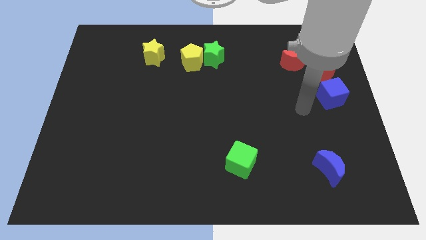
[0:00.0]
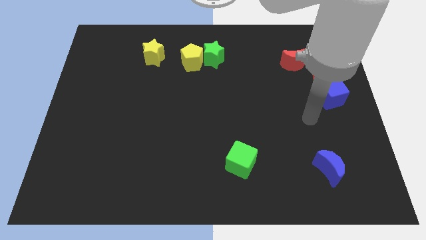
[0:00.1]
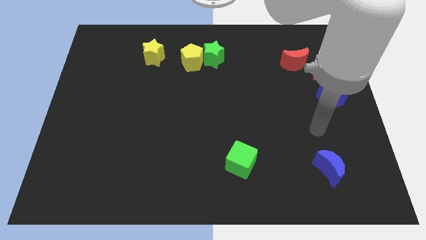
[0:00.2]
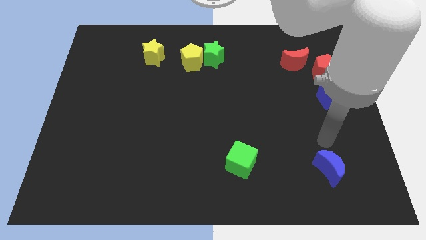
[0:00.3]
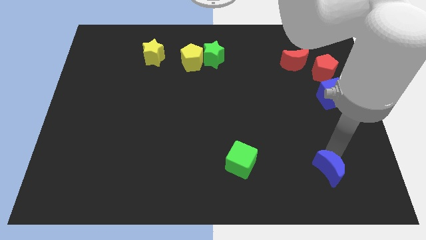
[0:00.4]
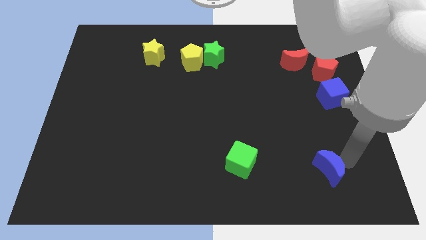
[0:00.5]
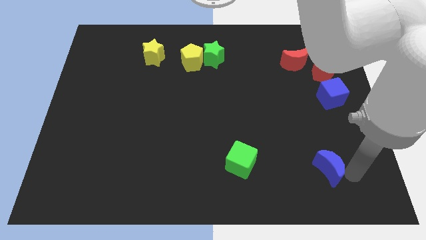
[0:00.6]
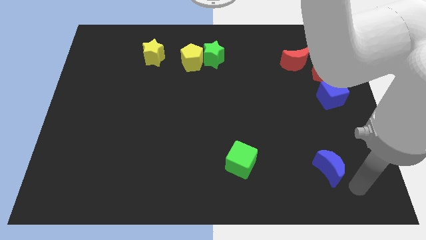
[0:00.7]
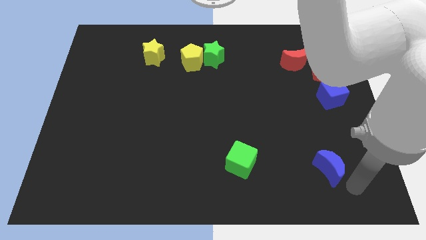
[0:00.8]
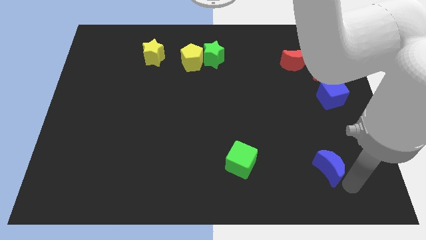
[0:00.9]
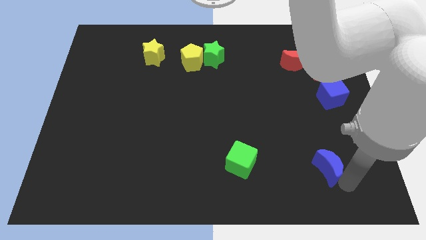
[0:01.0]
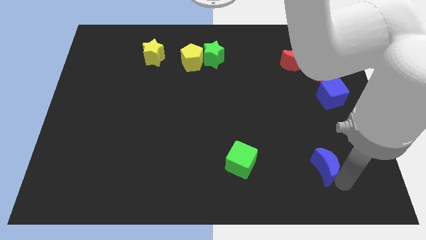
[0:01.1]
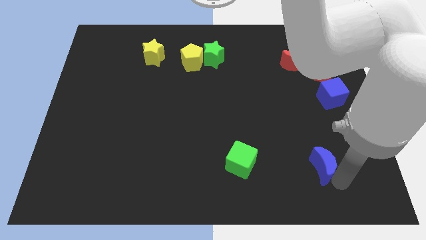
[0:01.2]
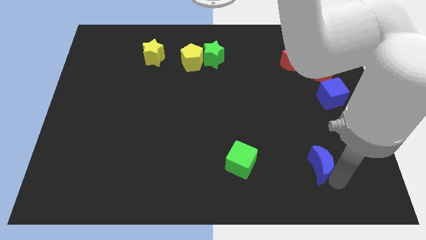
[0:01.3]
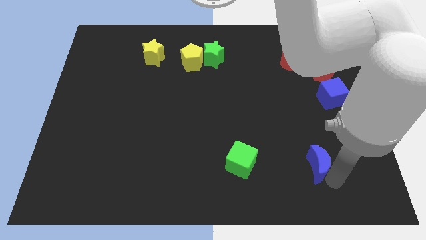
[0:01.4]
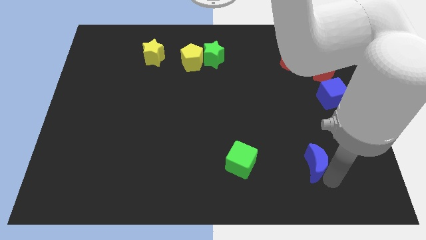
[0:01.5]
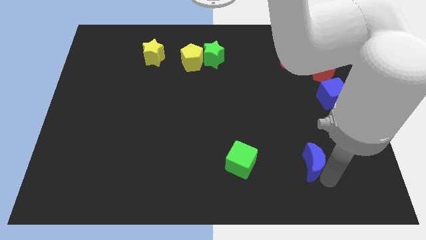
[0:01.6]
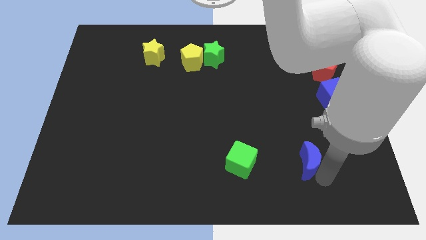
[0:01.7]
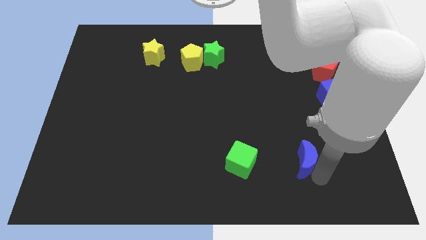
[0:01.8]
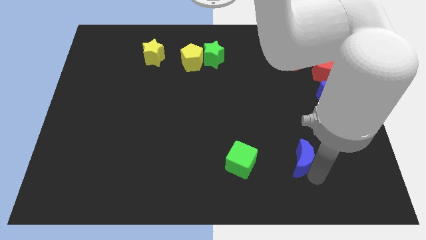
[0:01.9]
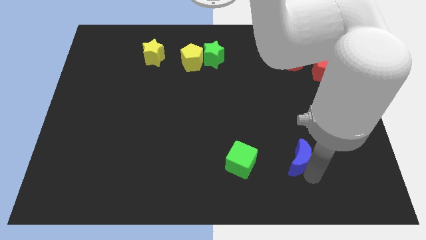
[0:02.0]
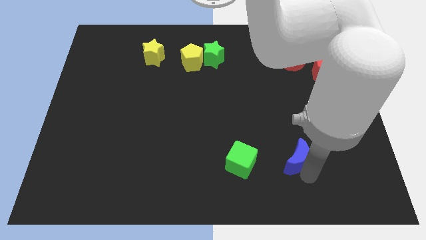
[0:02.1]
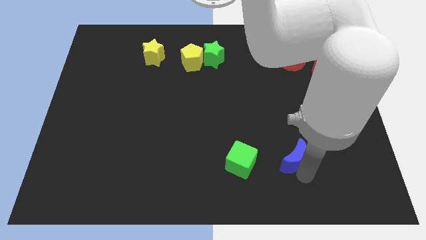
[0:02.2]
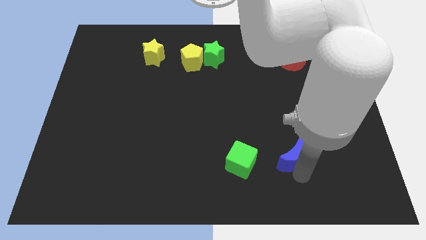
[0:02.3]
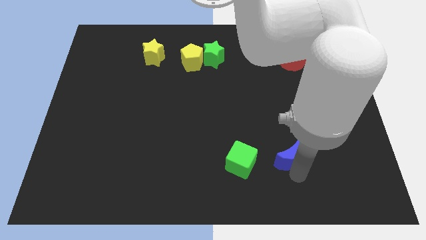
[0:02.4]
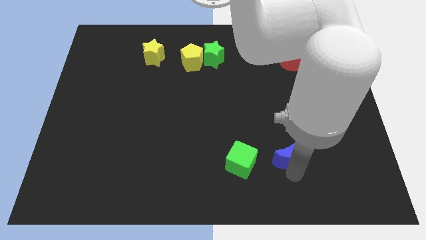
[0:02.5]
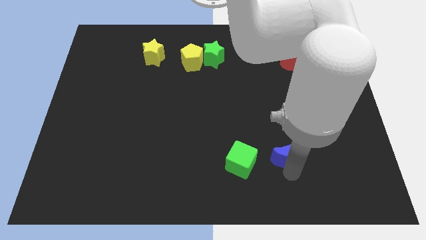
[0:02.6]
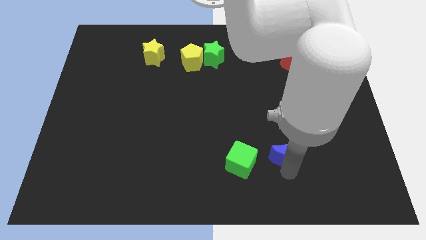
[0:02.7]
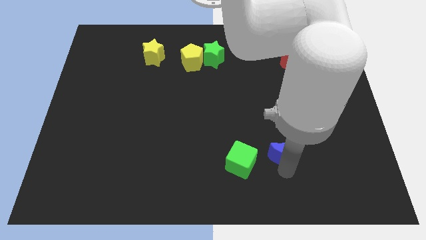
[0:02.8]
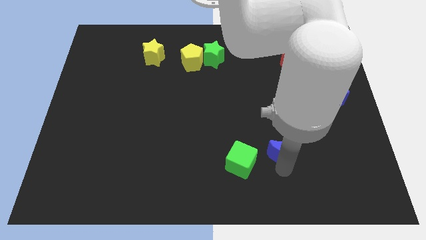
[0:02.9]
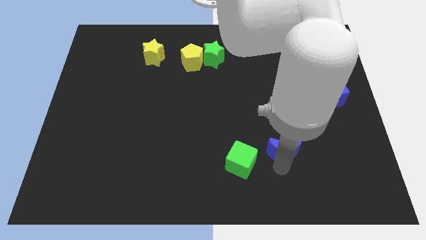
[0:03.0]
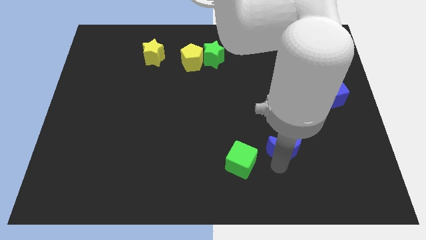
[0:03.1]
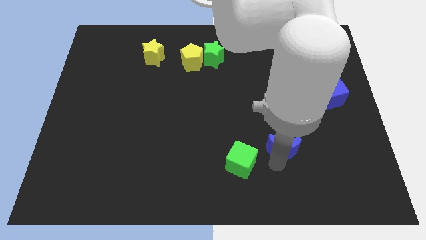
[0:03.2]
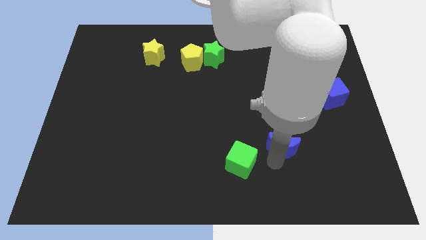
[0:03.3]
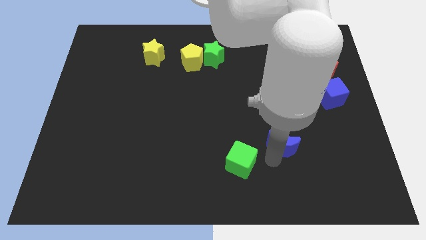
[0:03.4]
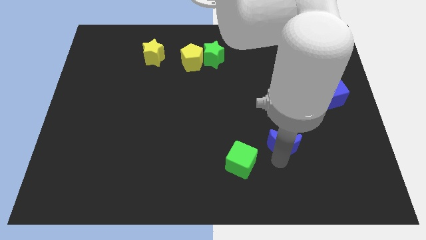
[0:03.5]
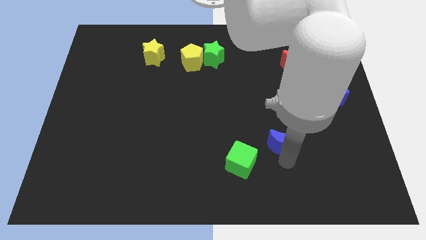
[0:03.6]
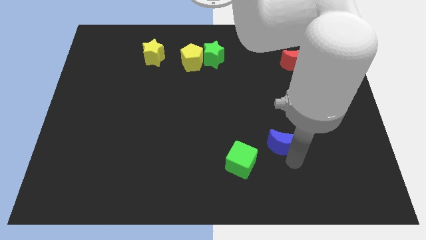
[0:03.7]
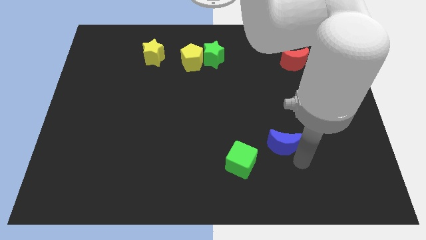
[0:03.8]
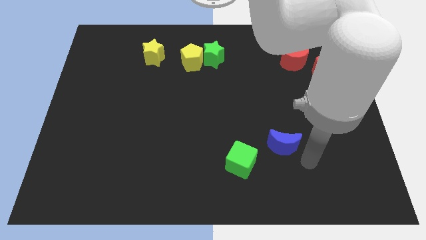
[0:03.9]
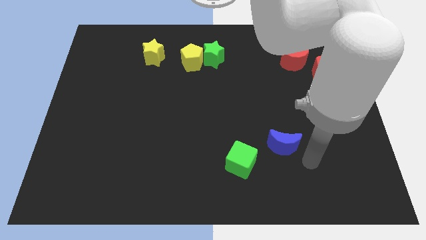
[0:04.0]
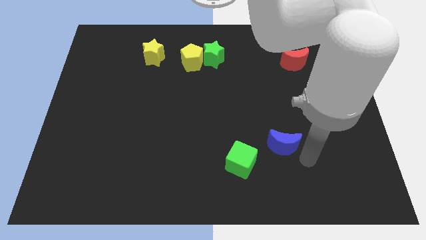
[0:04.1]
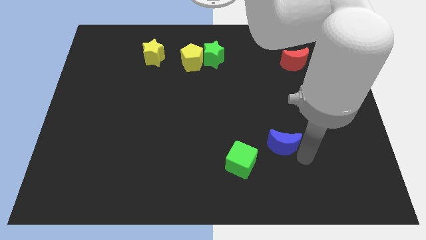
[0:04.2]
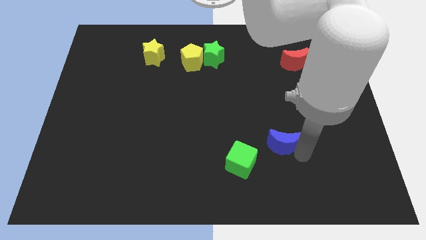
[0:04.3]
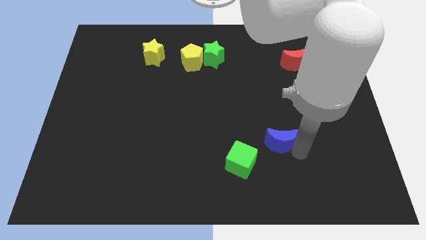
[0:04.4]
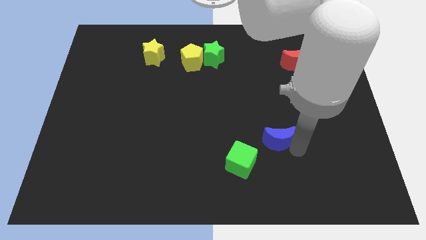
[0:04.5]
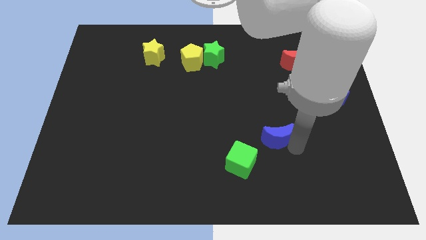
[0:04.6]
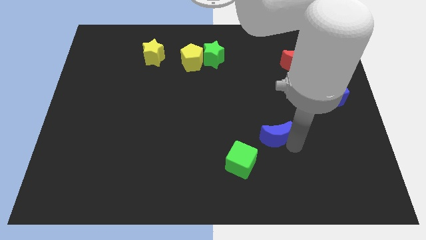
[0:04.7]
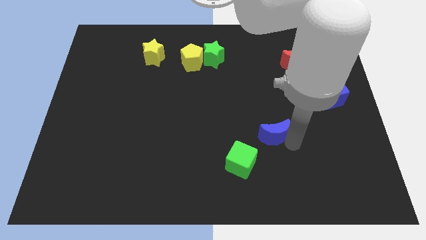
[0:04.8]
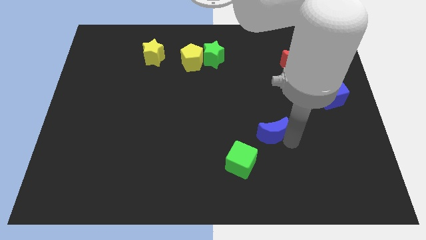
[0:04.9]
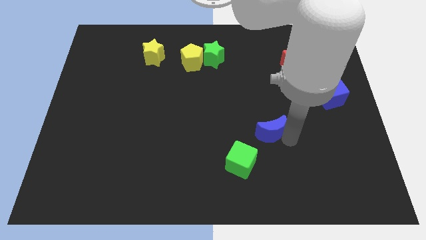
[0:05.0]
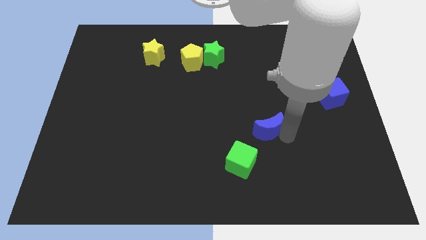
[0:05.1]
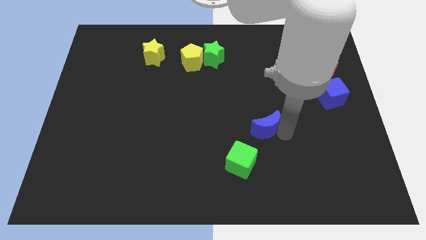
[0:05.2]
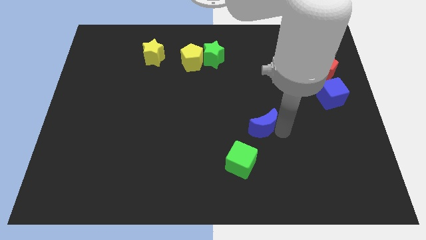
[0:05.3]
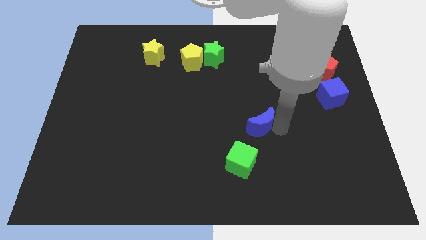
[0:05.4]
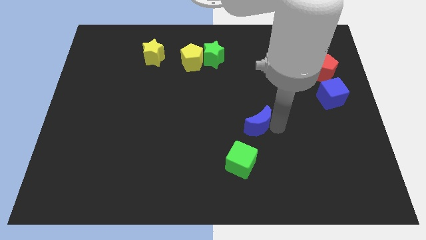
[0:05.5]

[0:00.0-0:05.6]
put the blue moon above the green cube

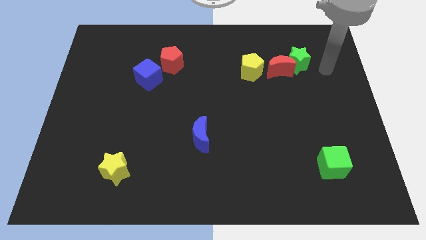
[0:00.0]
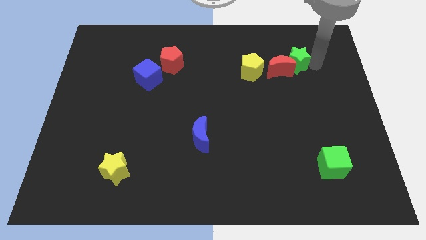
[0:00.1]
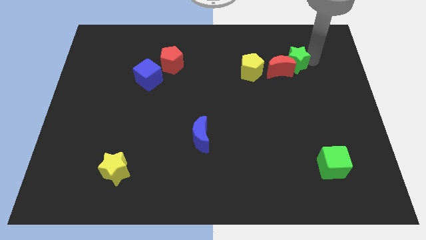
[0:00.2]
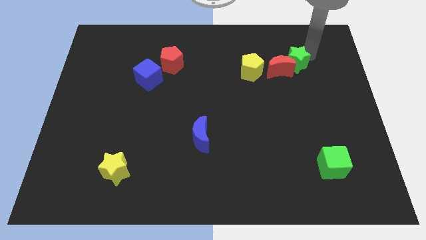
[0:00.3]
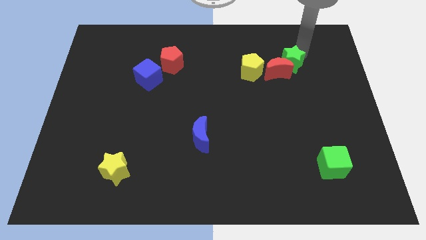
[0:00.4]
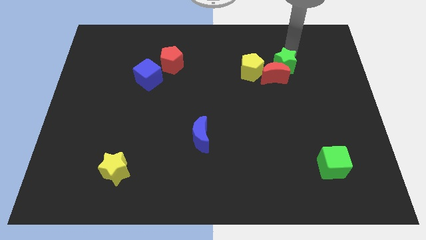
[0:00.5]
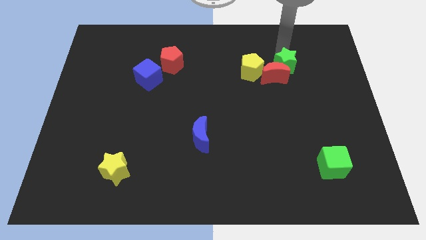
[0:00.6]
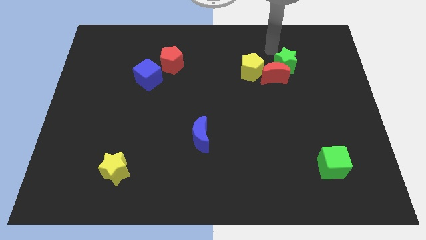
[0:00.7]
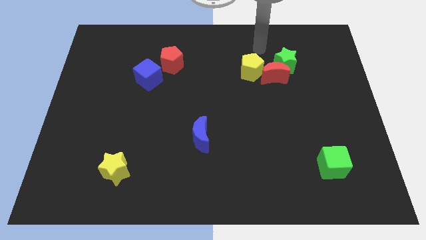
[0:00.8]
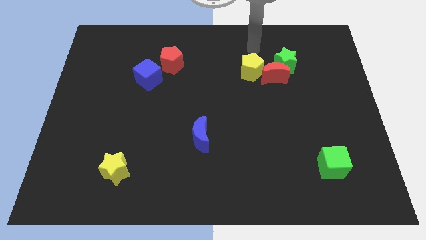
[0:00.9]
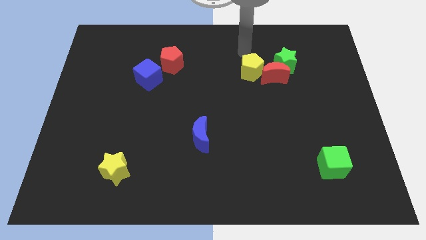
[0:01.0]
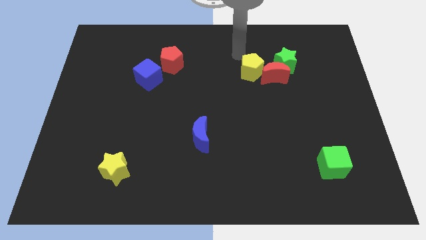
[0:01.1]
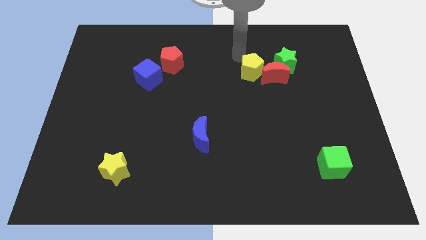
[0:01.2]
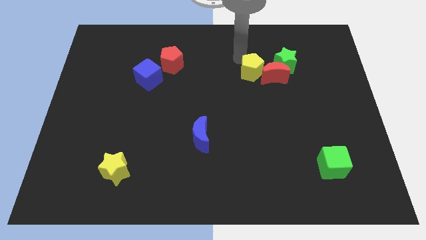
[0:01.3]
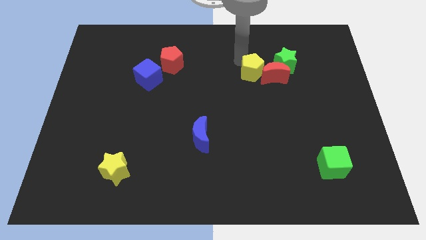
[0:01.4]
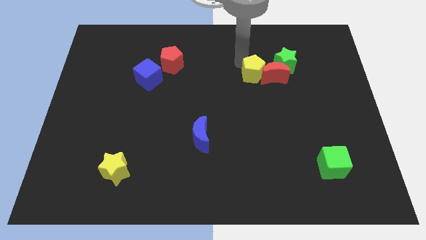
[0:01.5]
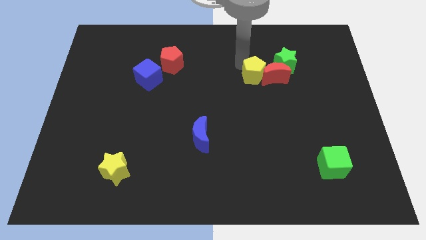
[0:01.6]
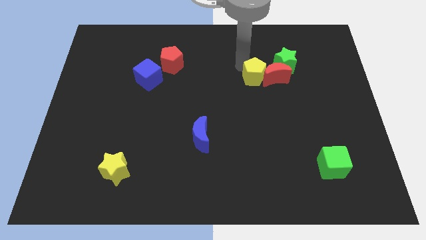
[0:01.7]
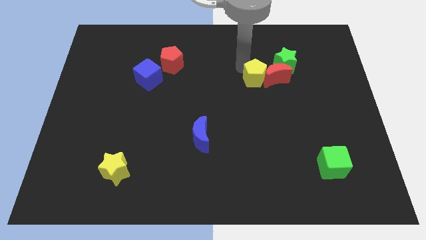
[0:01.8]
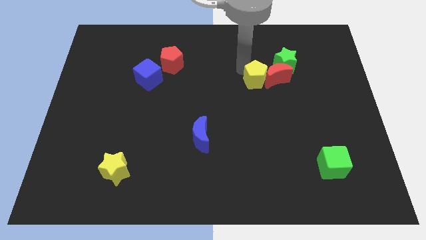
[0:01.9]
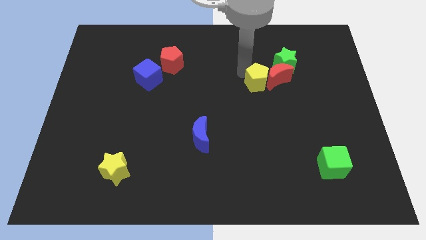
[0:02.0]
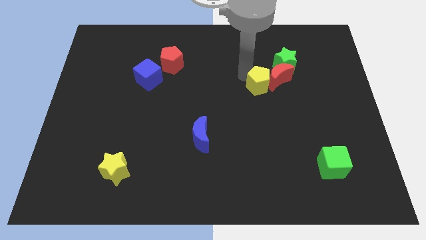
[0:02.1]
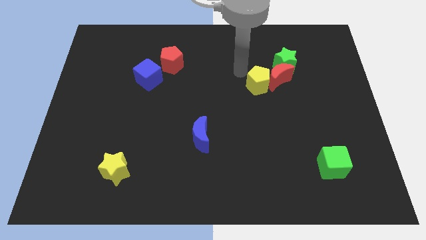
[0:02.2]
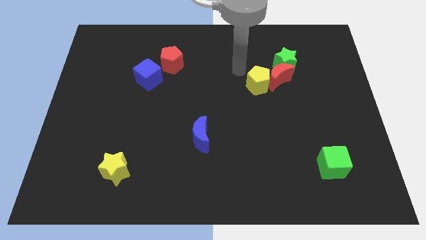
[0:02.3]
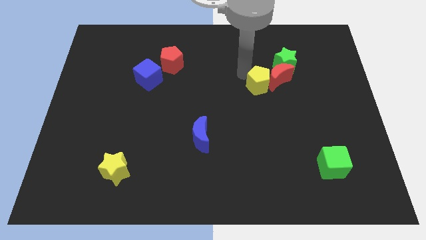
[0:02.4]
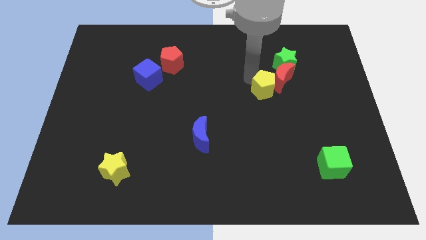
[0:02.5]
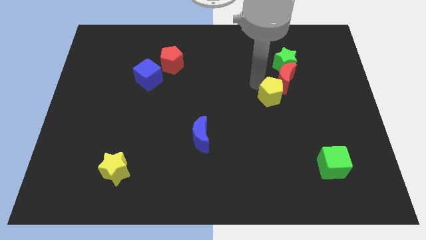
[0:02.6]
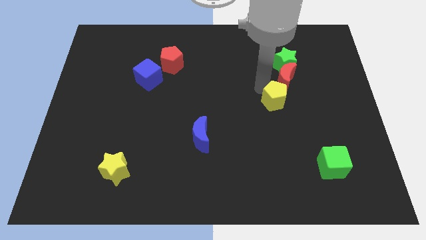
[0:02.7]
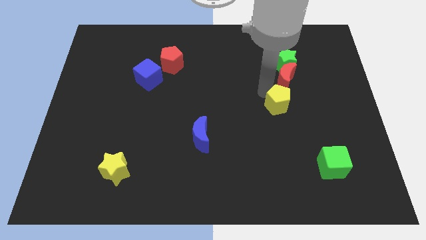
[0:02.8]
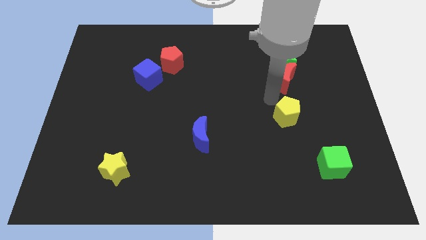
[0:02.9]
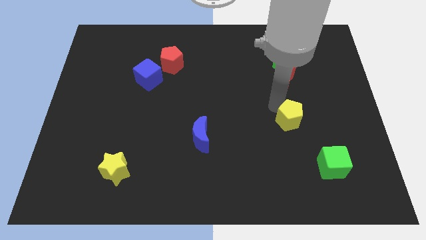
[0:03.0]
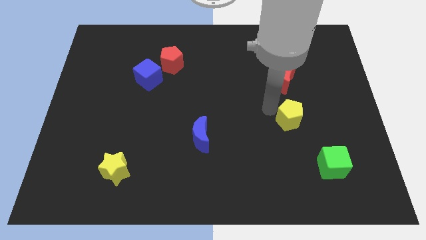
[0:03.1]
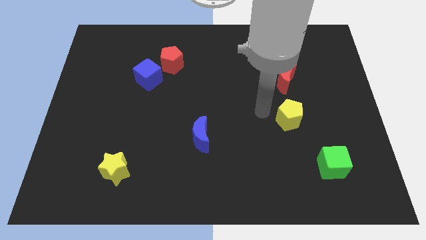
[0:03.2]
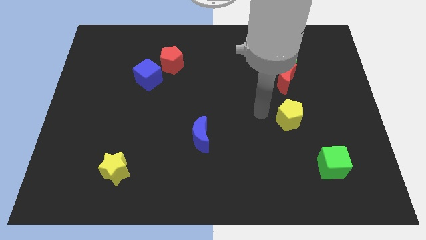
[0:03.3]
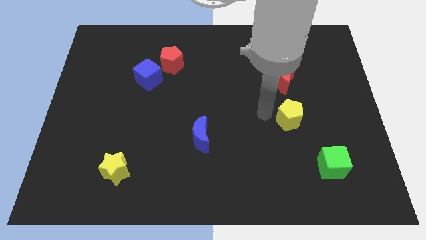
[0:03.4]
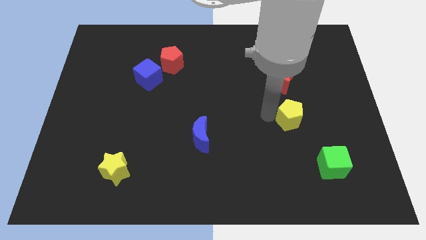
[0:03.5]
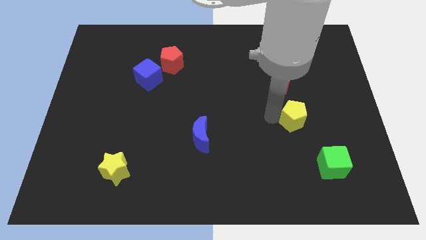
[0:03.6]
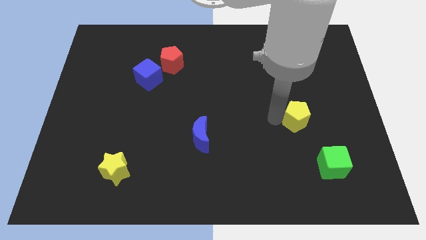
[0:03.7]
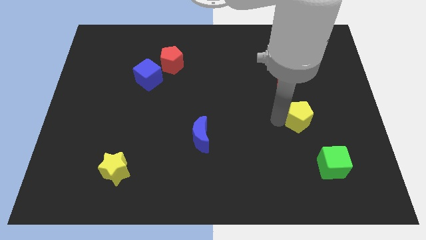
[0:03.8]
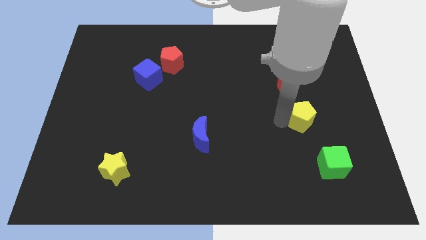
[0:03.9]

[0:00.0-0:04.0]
move the yellow pentagon to the top side of the green cube
